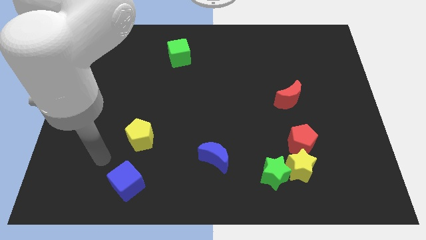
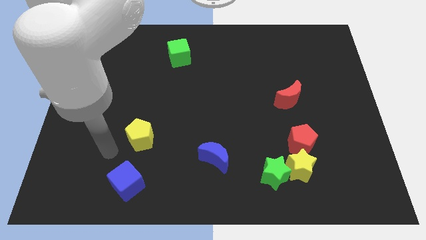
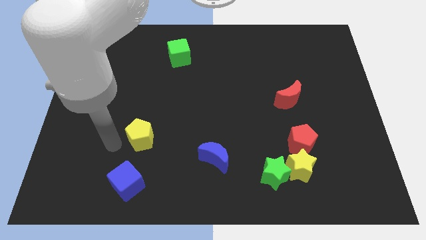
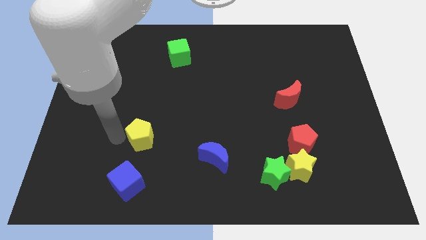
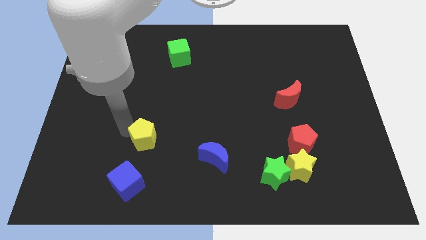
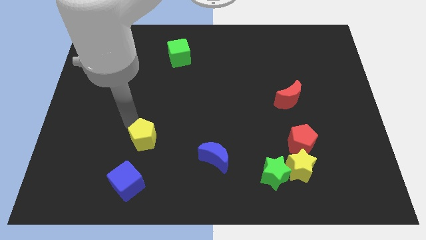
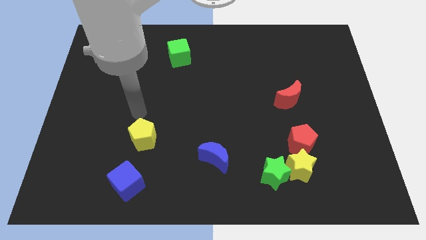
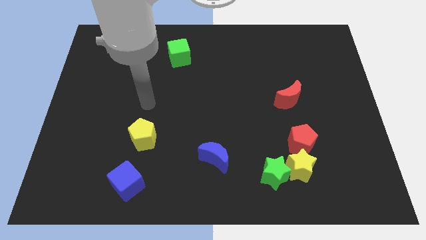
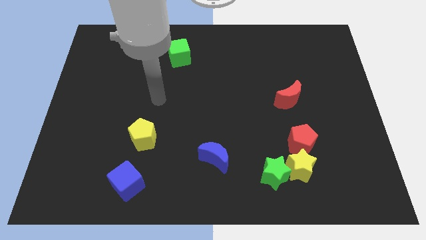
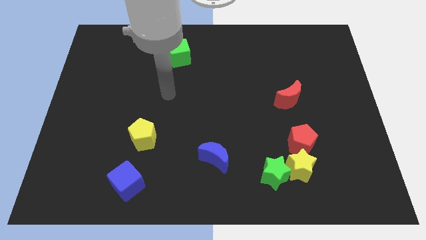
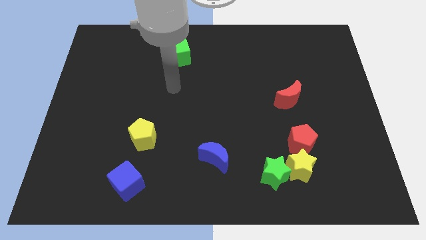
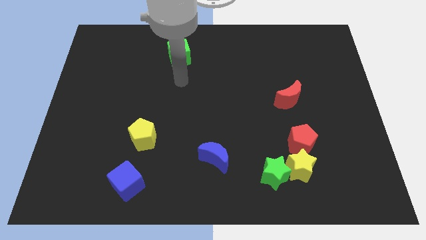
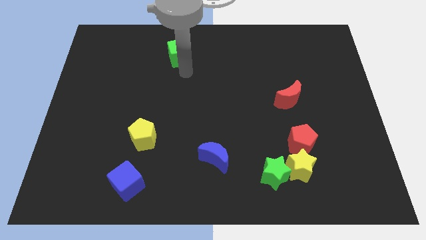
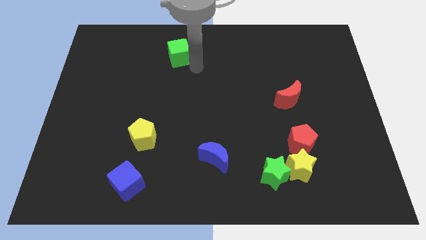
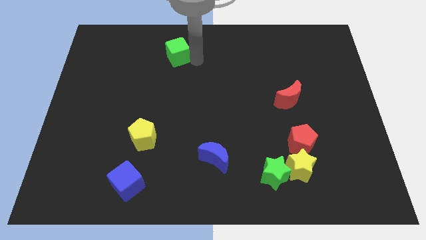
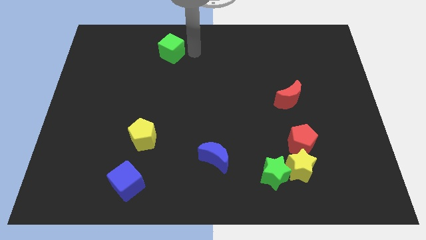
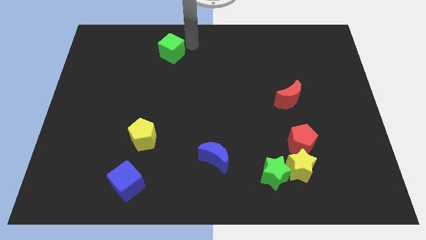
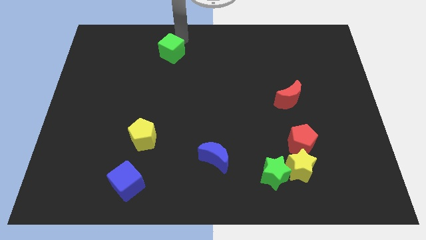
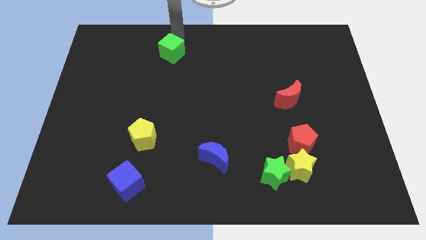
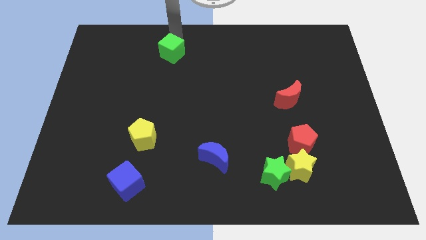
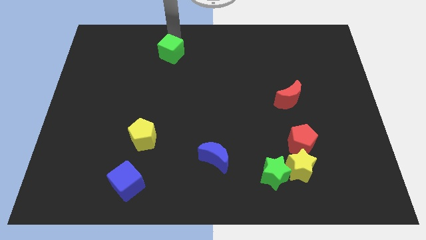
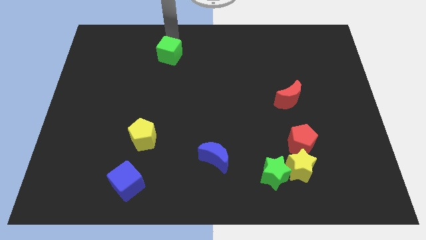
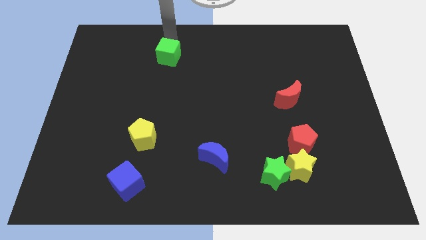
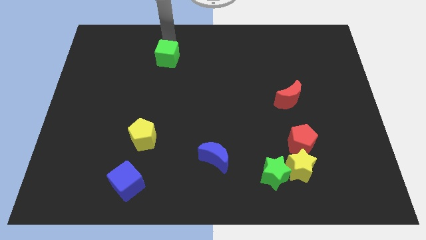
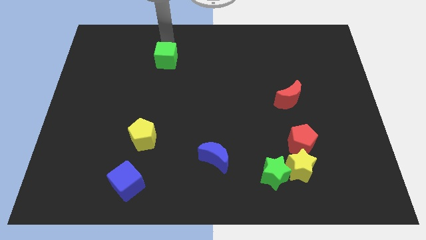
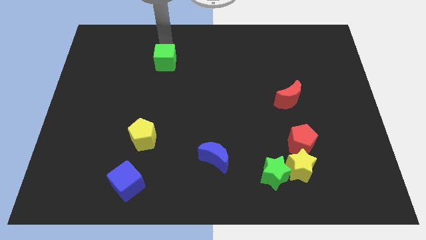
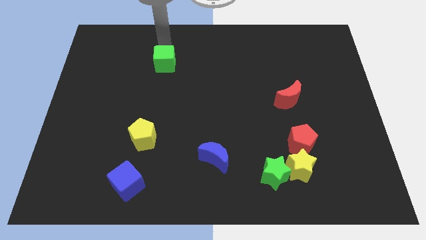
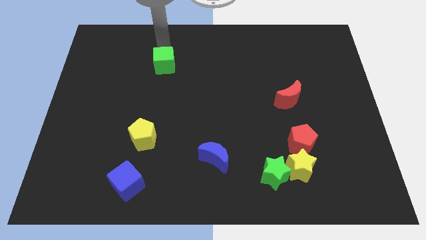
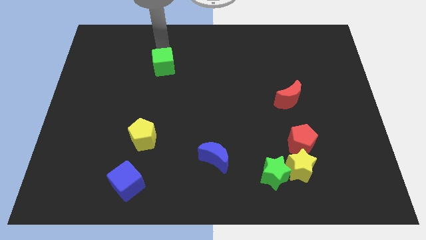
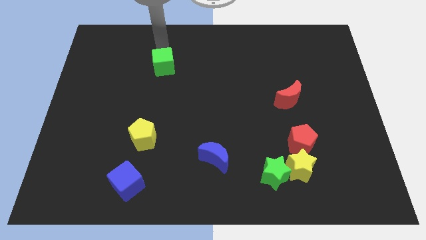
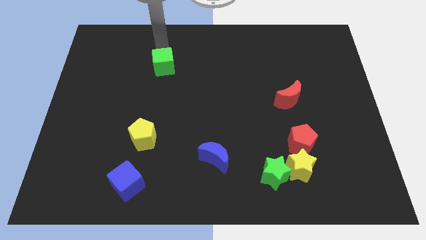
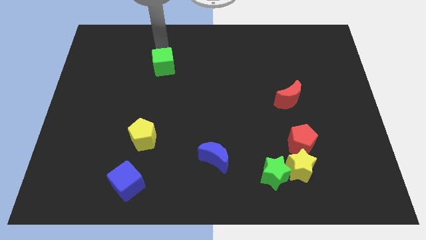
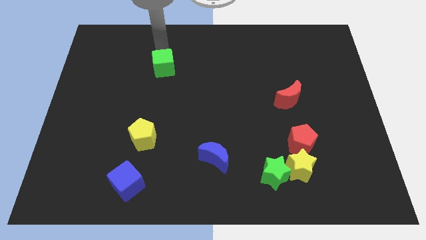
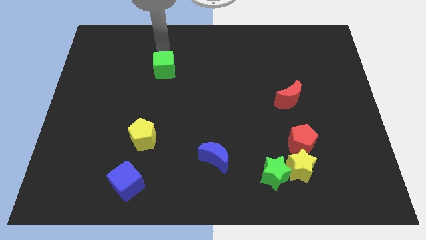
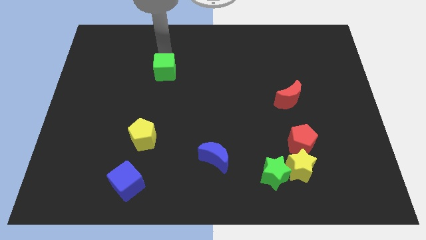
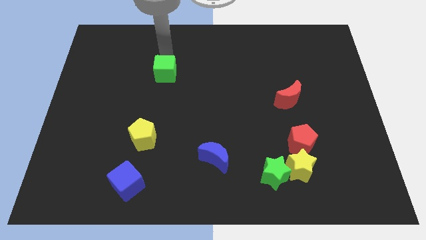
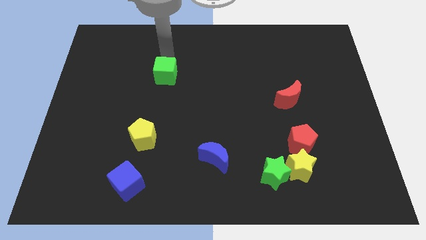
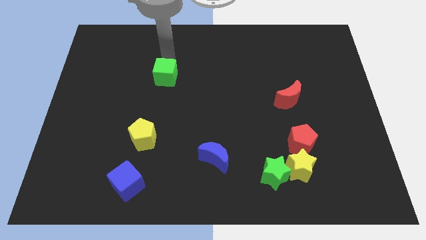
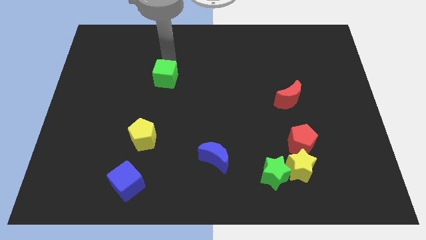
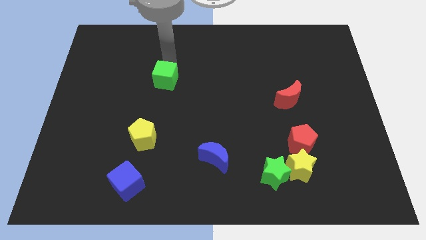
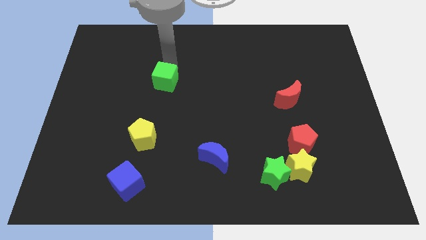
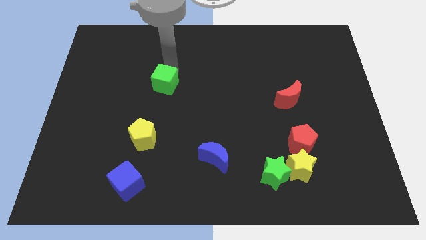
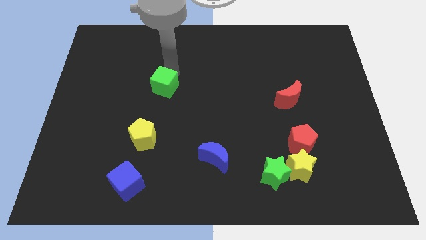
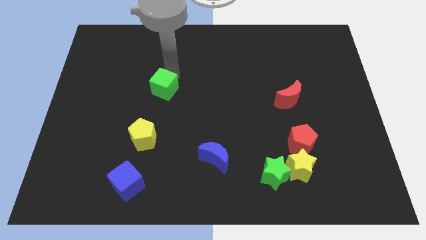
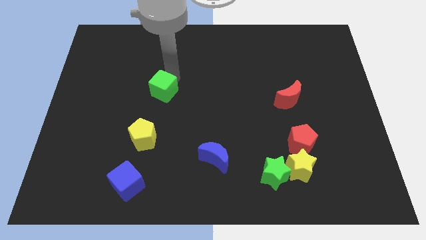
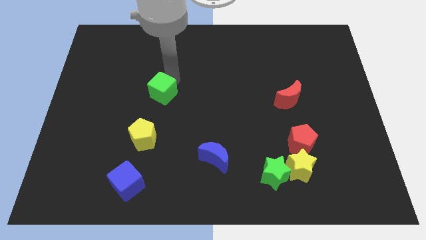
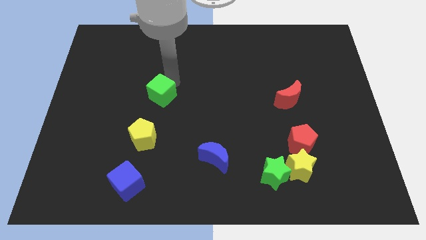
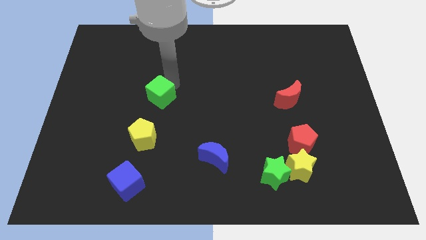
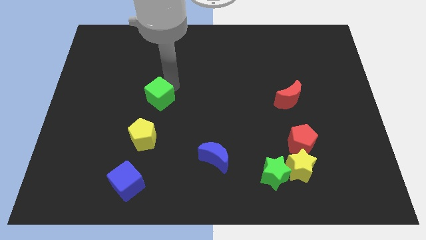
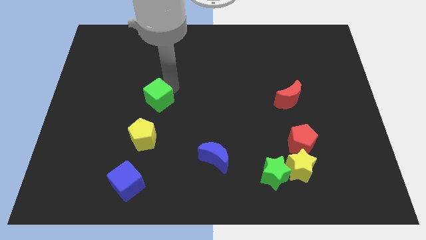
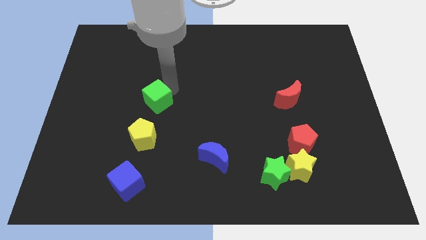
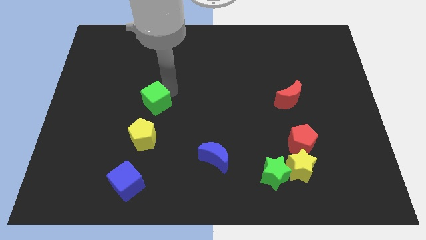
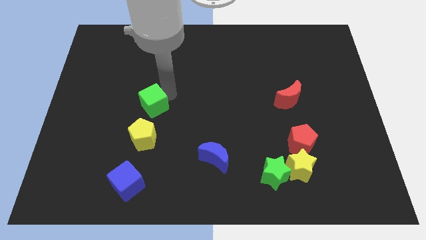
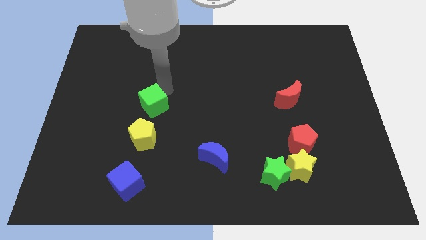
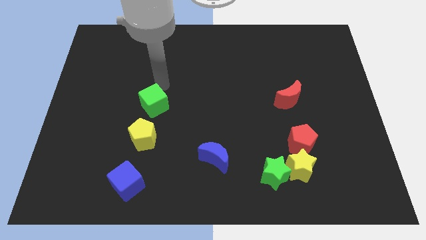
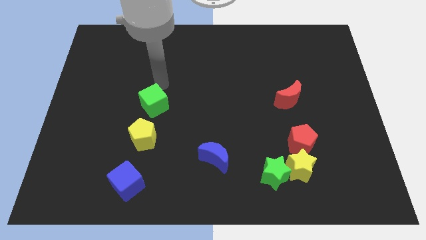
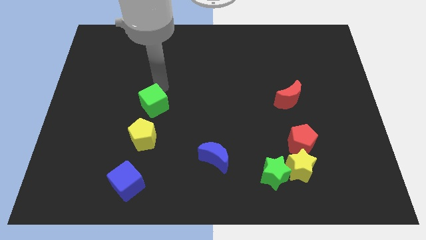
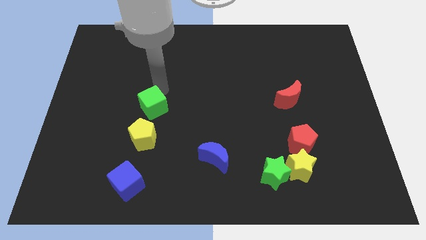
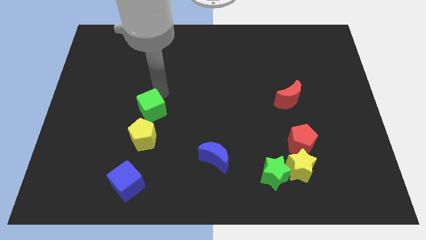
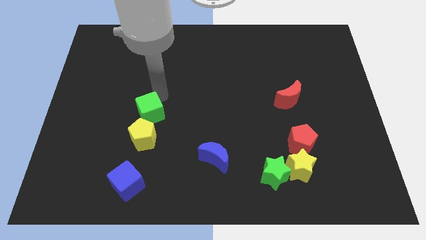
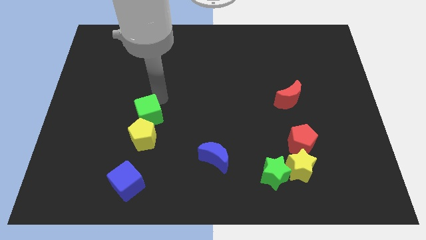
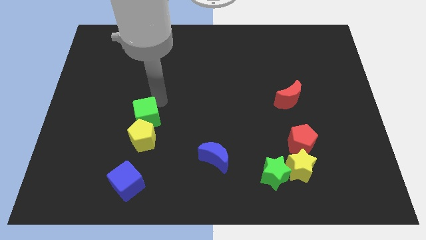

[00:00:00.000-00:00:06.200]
push the green cube next to the yellow pentagon

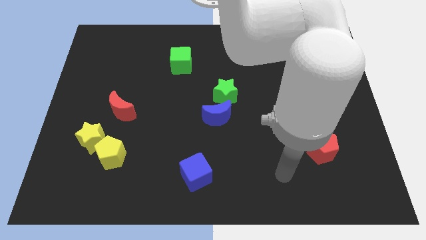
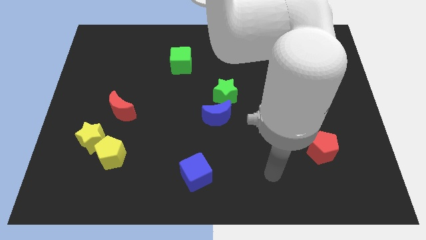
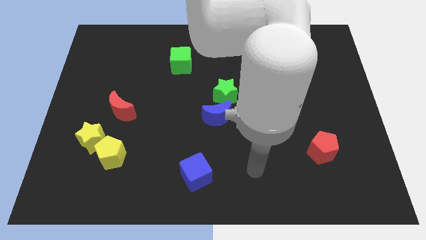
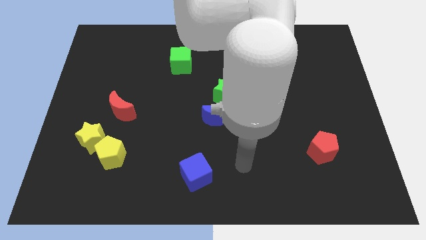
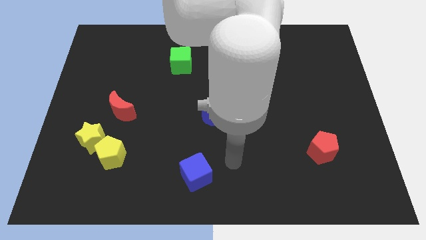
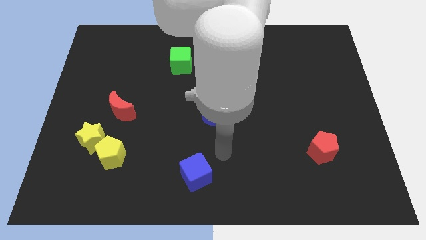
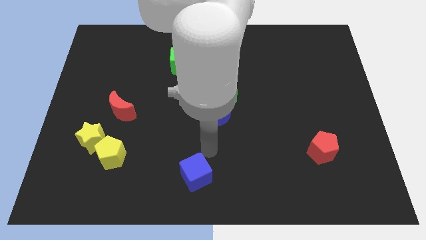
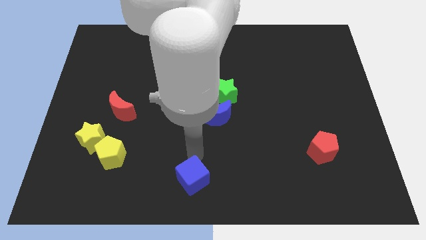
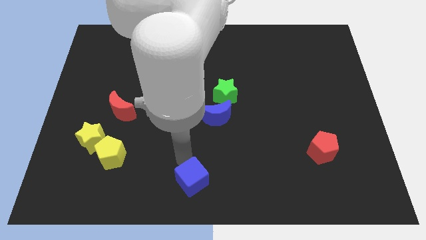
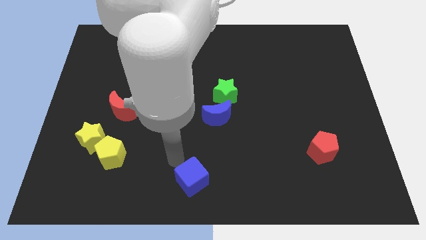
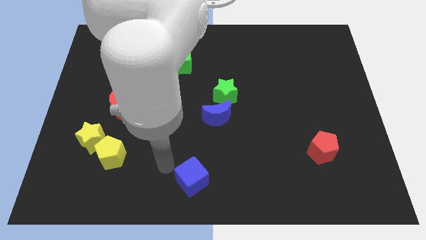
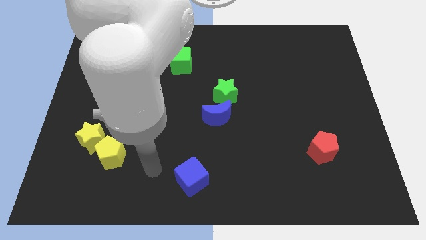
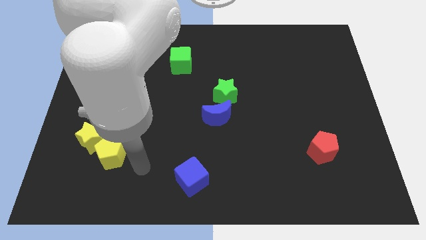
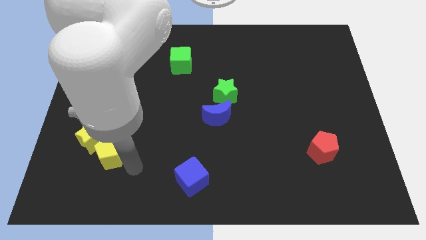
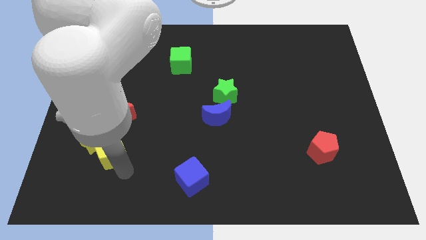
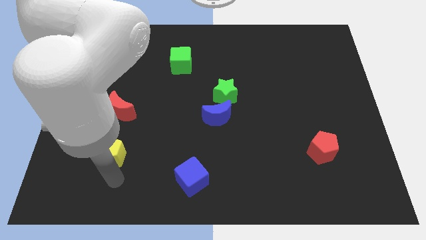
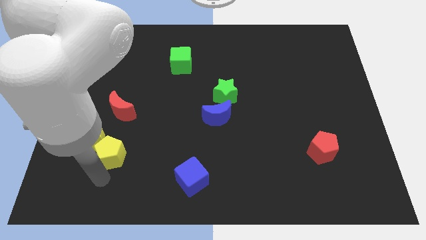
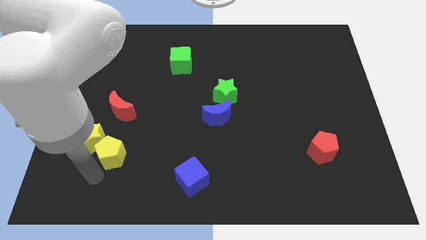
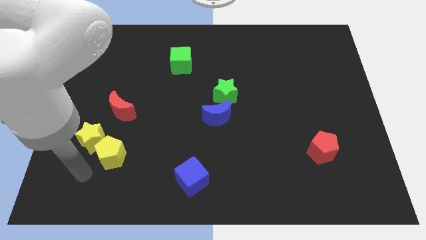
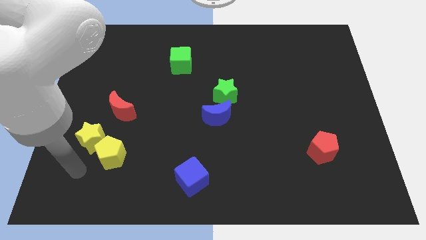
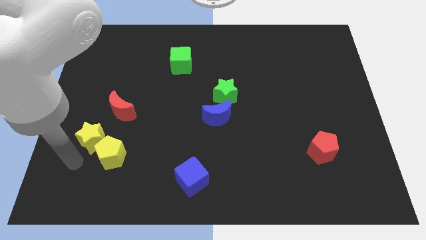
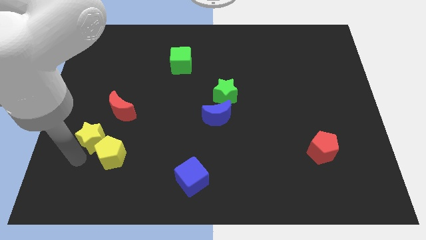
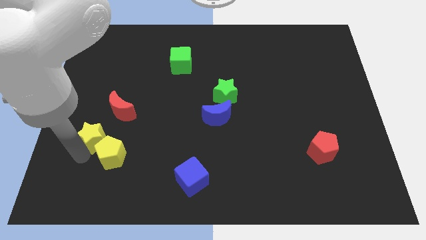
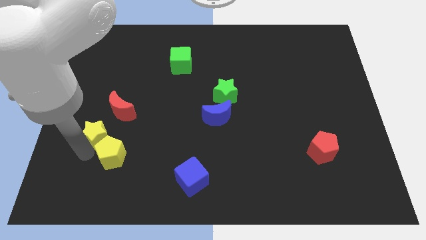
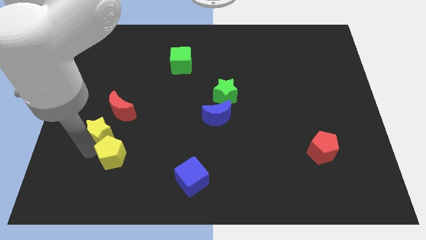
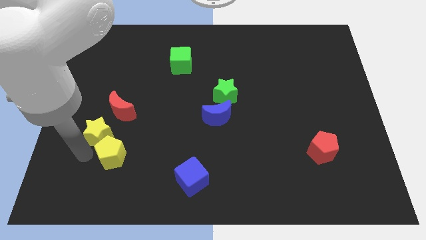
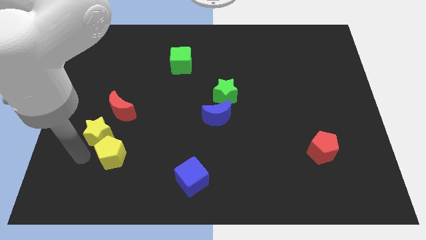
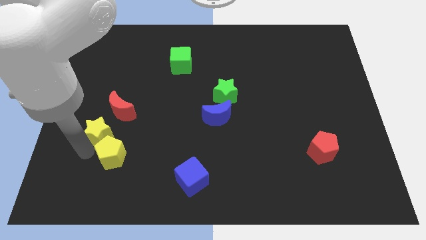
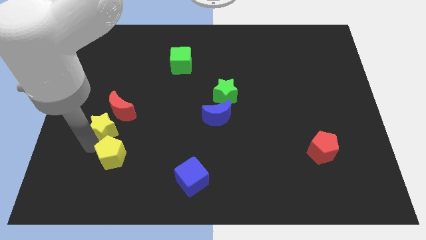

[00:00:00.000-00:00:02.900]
push the yellow star towards the red moon
